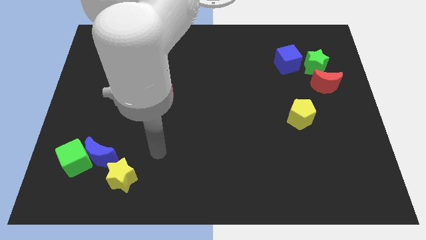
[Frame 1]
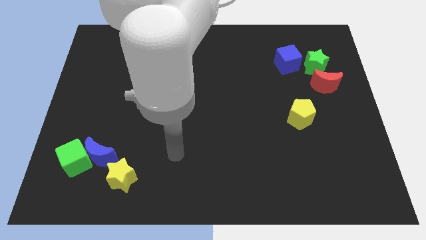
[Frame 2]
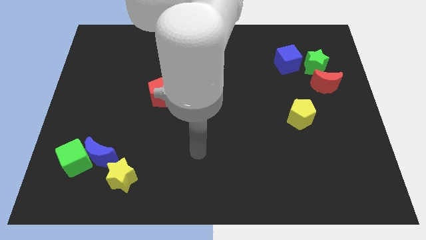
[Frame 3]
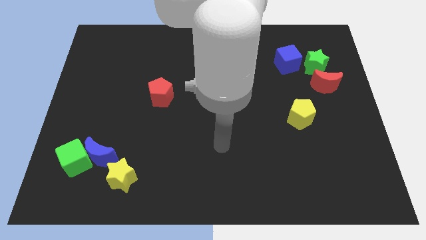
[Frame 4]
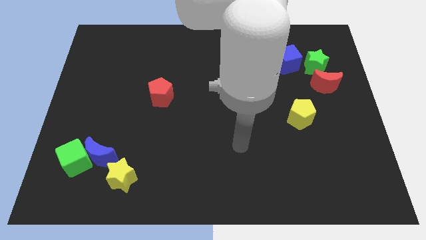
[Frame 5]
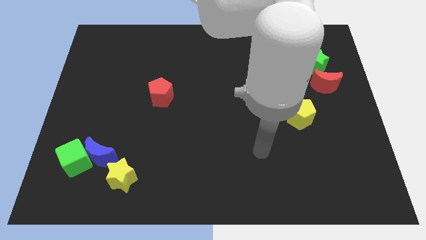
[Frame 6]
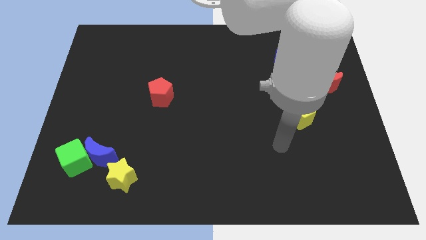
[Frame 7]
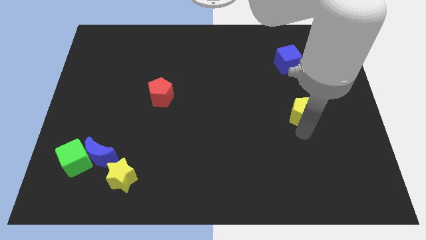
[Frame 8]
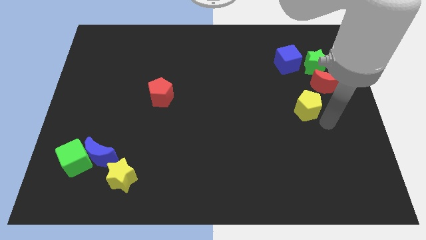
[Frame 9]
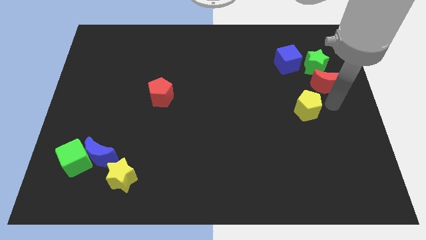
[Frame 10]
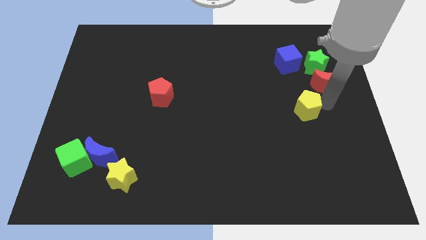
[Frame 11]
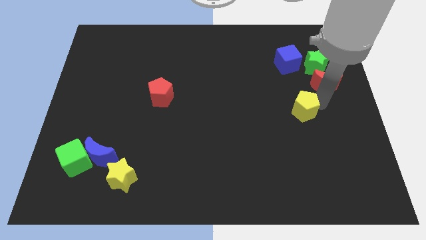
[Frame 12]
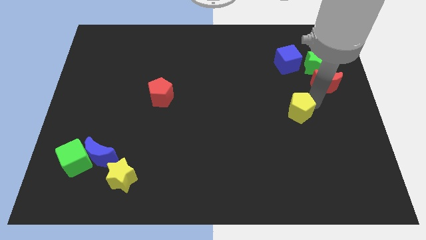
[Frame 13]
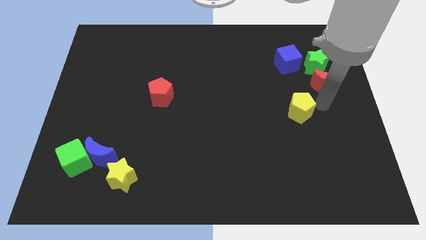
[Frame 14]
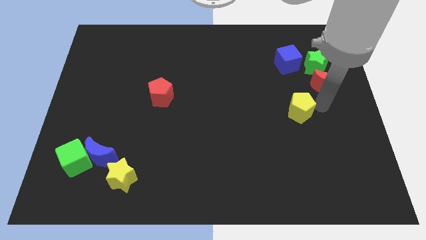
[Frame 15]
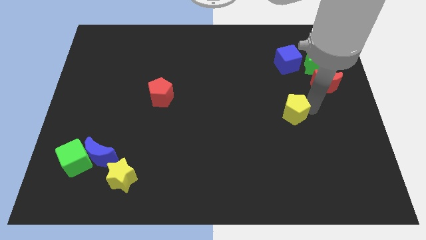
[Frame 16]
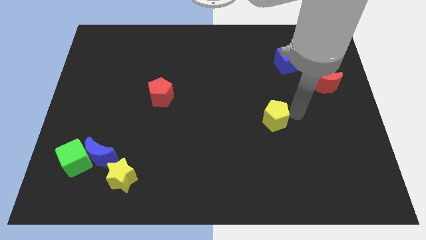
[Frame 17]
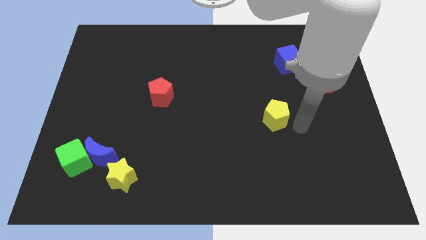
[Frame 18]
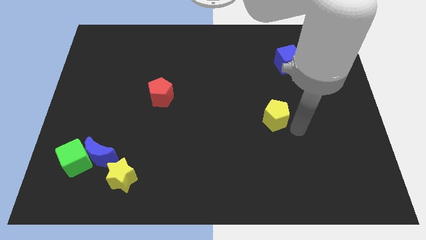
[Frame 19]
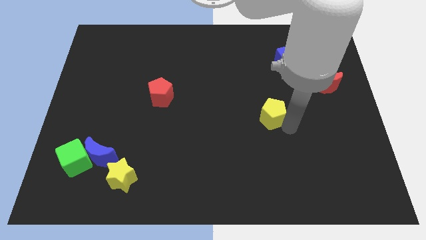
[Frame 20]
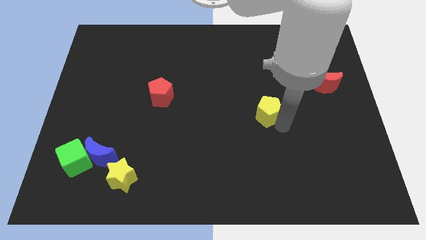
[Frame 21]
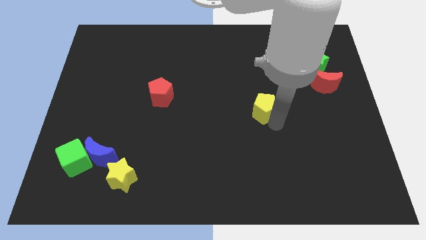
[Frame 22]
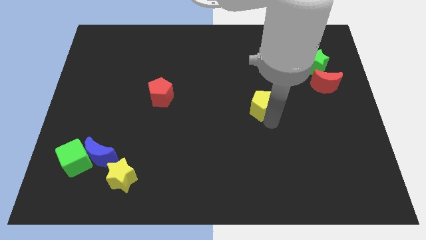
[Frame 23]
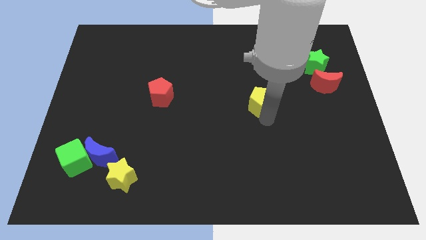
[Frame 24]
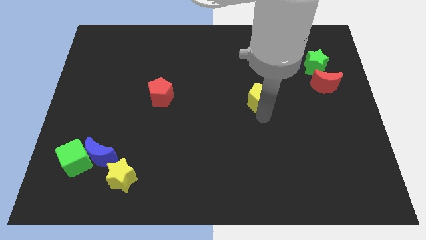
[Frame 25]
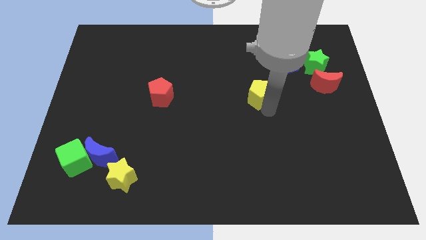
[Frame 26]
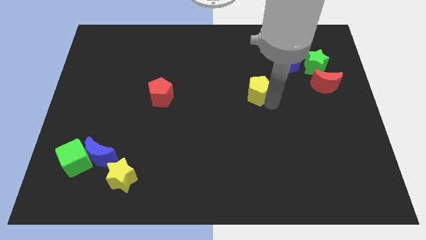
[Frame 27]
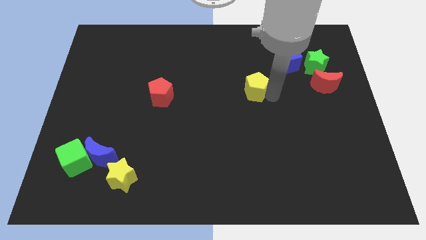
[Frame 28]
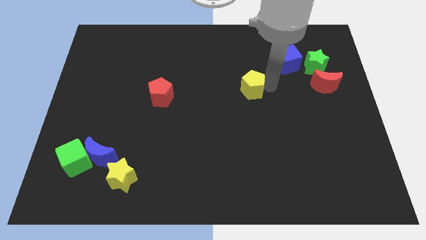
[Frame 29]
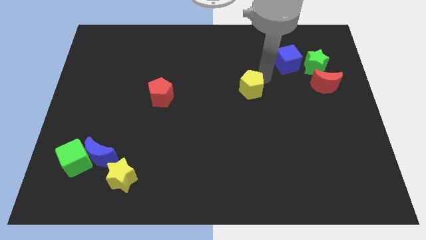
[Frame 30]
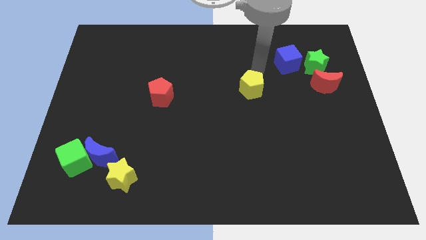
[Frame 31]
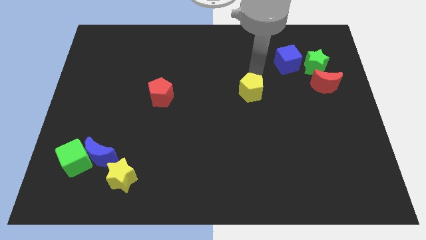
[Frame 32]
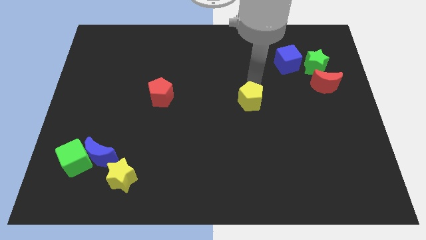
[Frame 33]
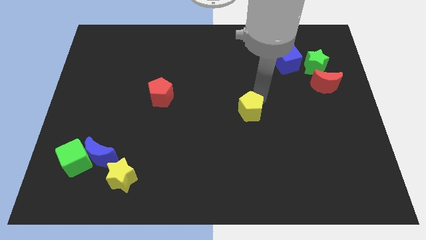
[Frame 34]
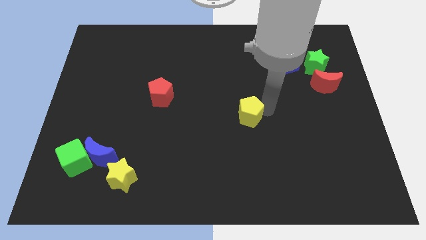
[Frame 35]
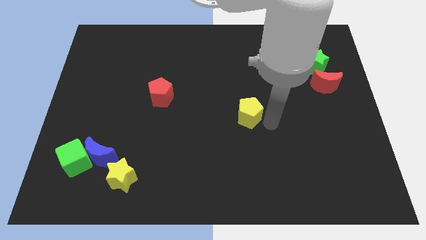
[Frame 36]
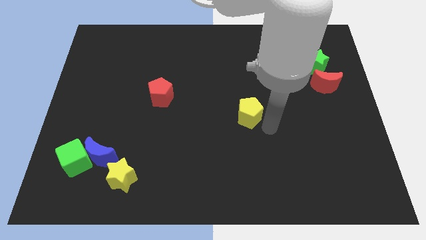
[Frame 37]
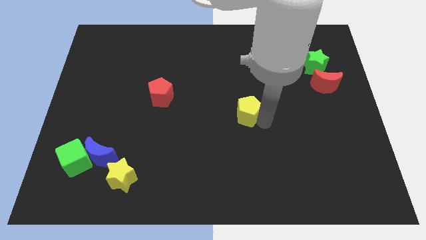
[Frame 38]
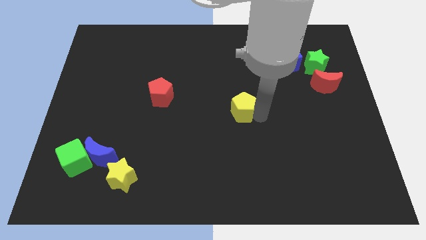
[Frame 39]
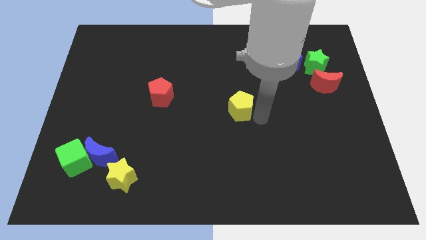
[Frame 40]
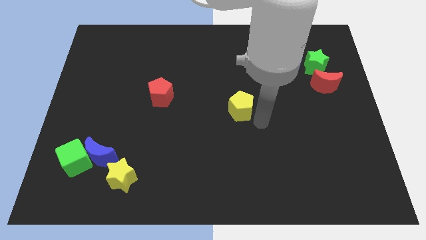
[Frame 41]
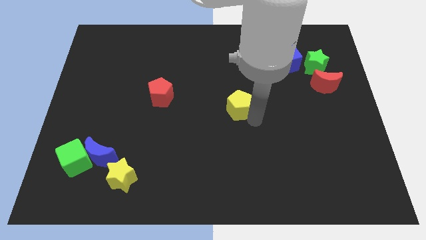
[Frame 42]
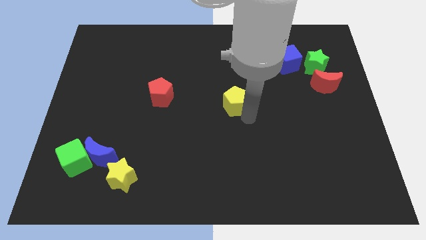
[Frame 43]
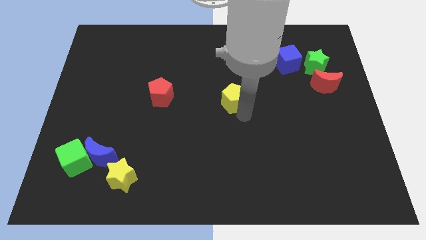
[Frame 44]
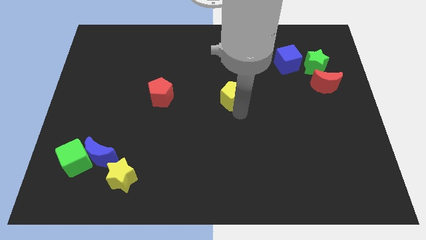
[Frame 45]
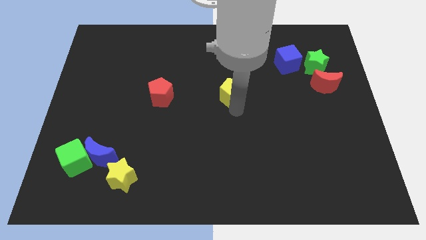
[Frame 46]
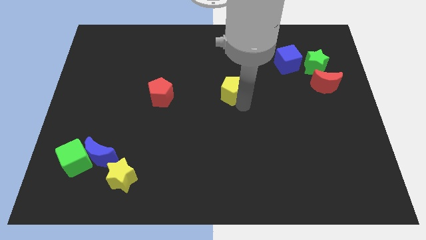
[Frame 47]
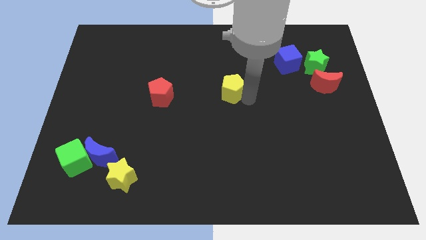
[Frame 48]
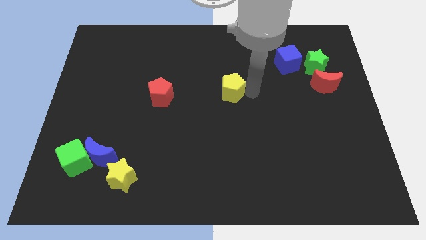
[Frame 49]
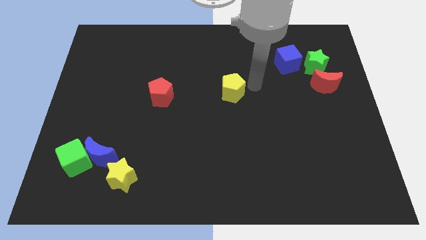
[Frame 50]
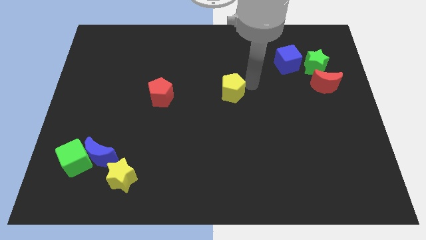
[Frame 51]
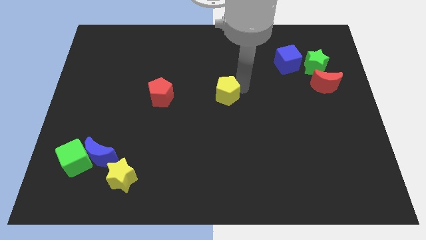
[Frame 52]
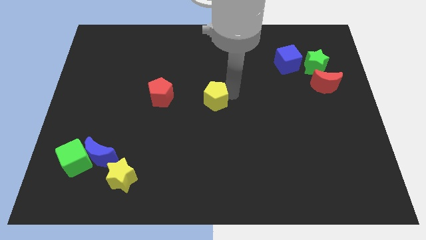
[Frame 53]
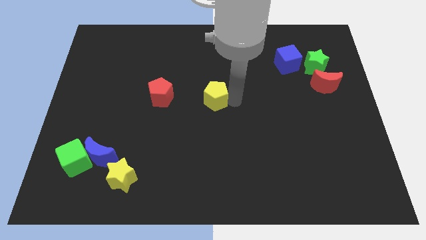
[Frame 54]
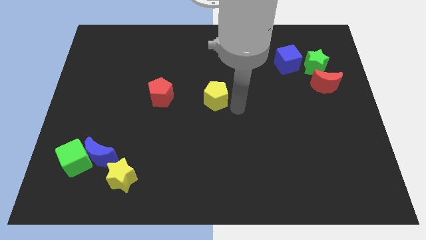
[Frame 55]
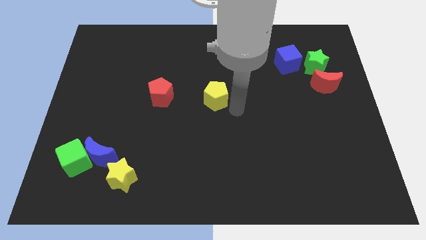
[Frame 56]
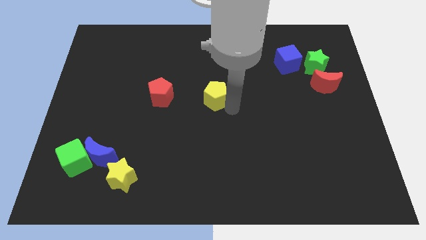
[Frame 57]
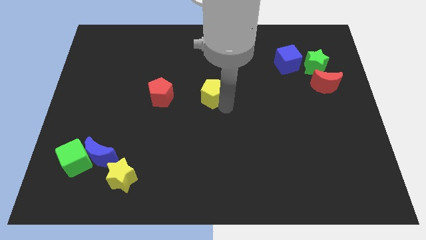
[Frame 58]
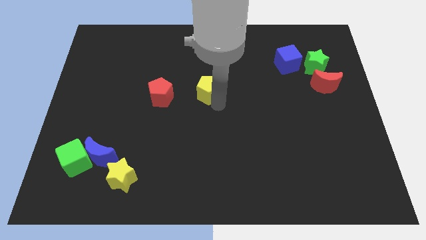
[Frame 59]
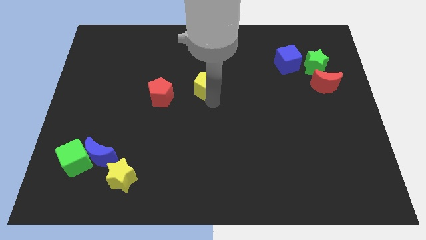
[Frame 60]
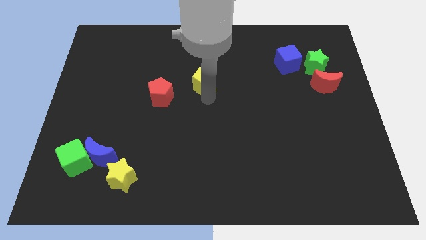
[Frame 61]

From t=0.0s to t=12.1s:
put the yellow pentagon to the top right of the red pentagon

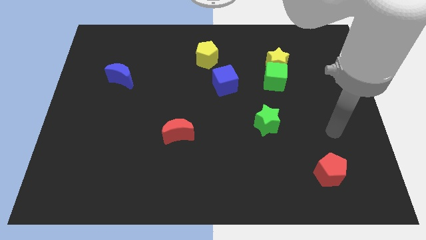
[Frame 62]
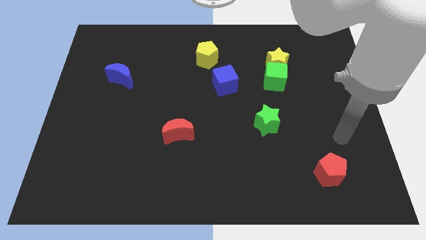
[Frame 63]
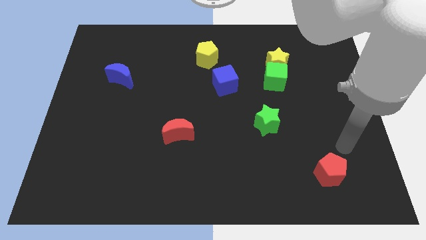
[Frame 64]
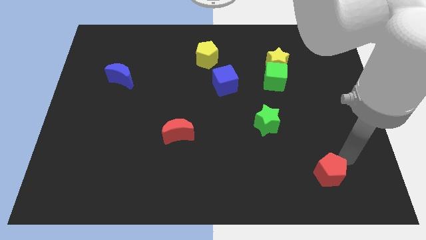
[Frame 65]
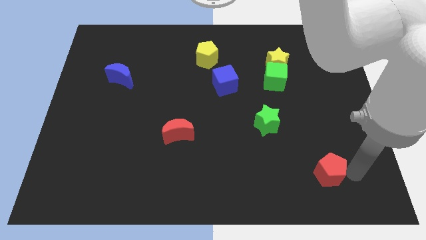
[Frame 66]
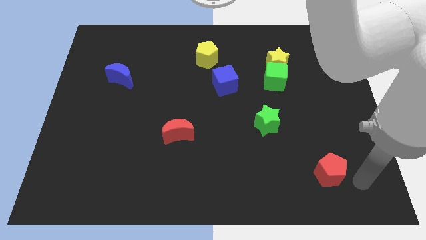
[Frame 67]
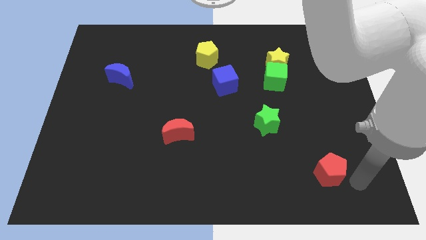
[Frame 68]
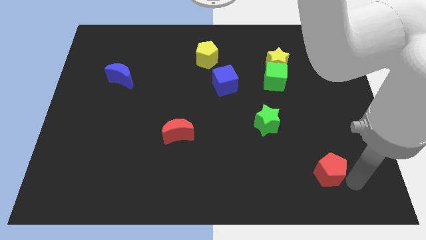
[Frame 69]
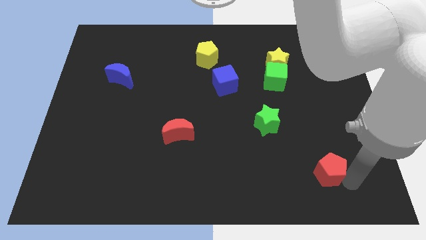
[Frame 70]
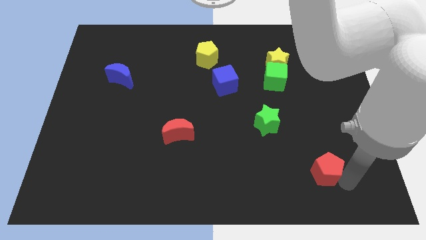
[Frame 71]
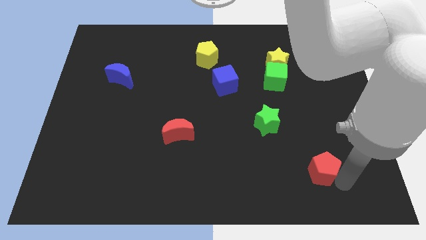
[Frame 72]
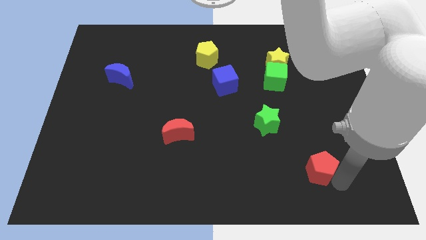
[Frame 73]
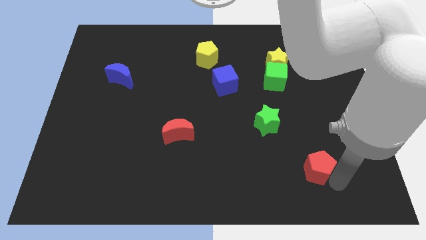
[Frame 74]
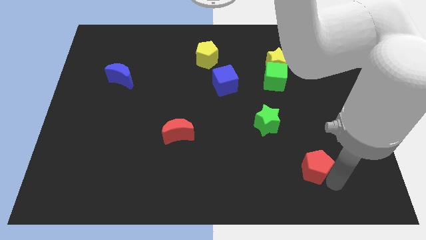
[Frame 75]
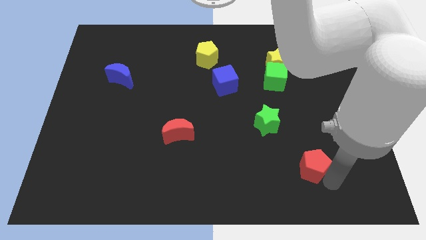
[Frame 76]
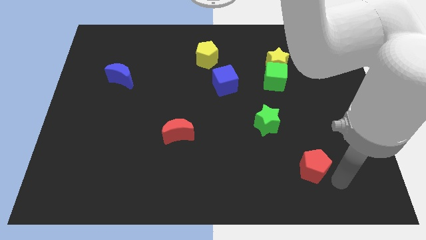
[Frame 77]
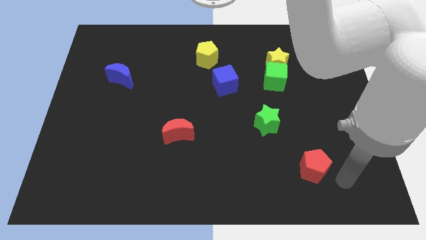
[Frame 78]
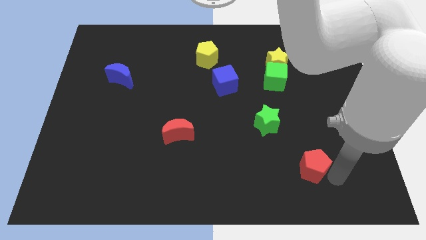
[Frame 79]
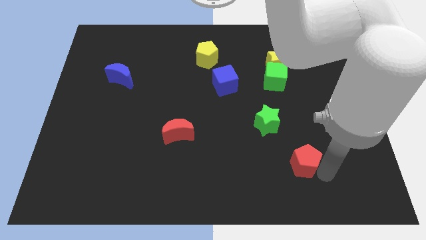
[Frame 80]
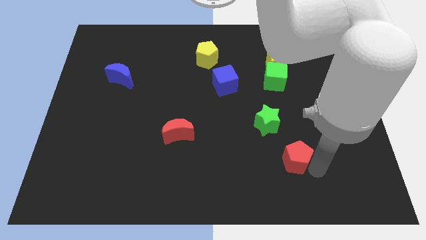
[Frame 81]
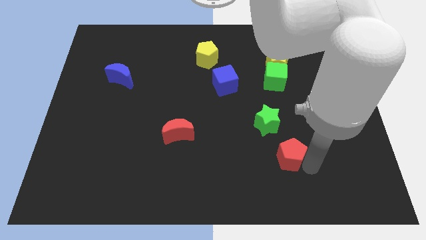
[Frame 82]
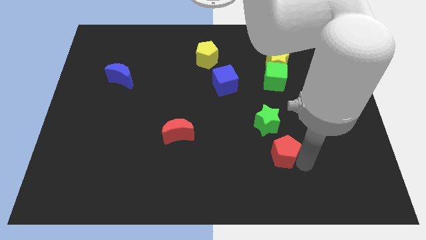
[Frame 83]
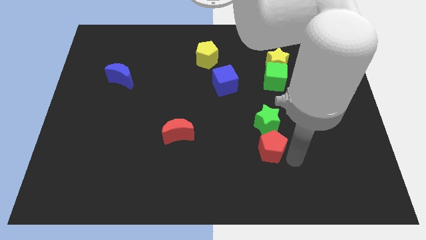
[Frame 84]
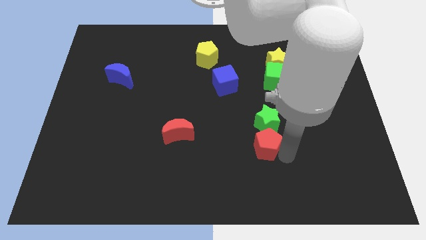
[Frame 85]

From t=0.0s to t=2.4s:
put the red pentagon to the bottom left of the green star
